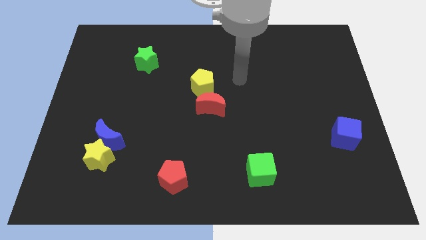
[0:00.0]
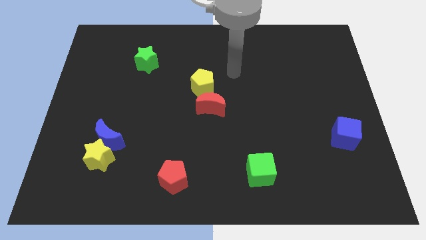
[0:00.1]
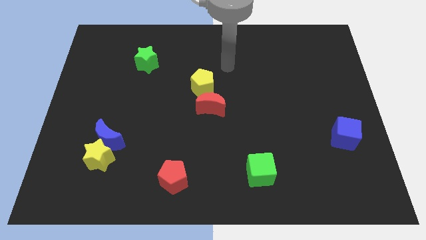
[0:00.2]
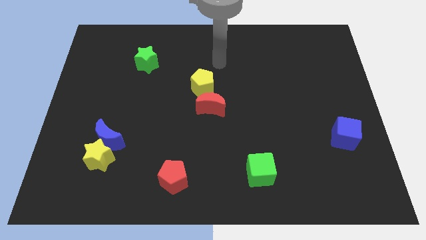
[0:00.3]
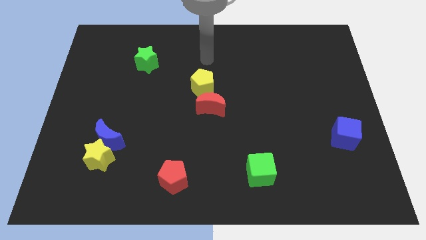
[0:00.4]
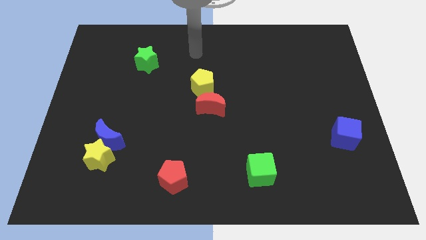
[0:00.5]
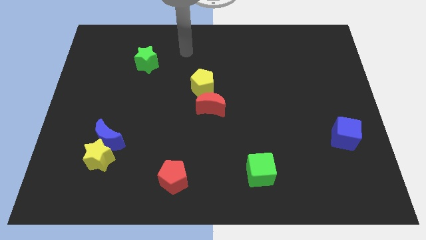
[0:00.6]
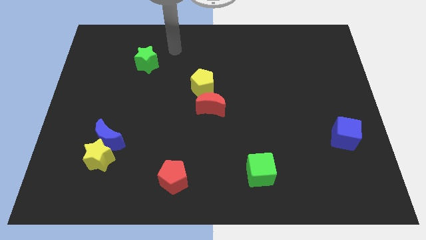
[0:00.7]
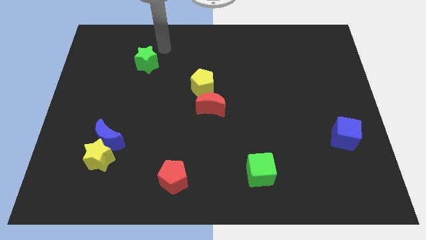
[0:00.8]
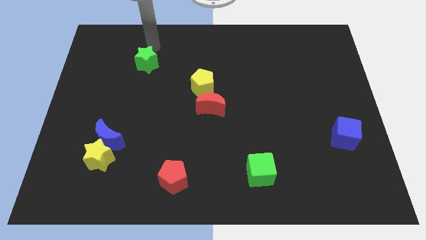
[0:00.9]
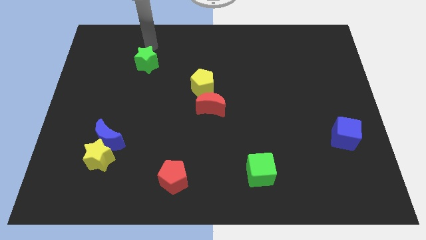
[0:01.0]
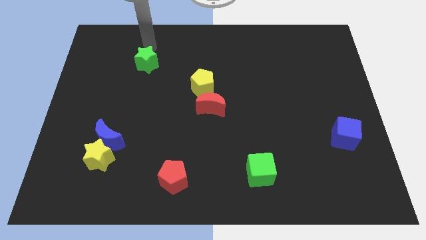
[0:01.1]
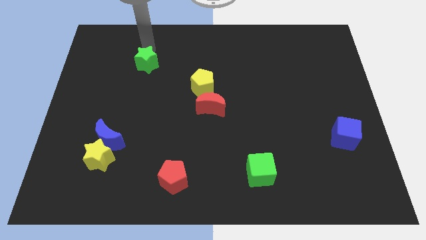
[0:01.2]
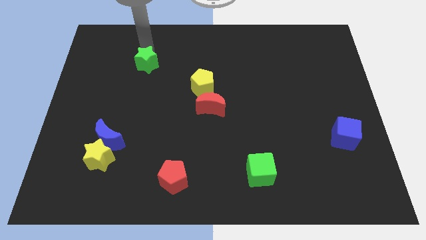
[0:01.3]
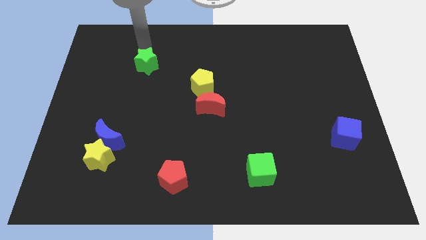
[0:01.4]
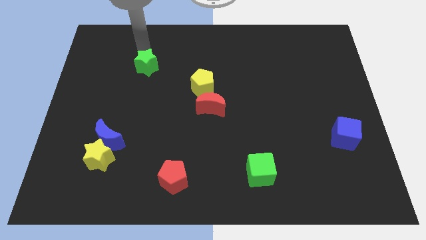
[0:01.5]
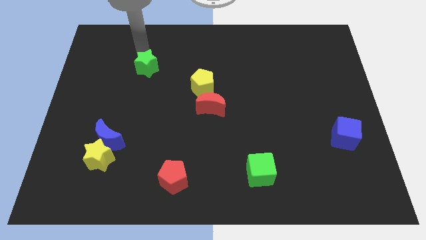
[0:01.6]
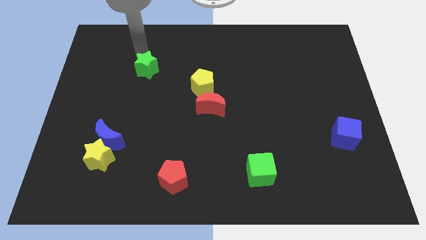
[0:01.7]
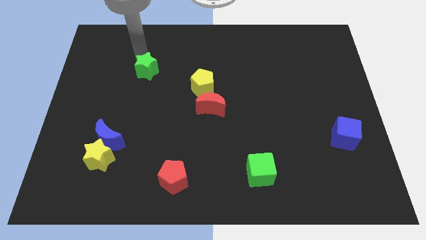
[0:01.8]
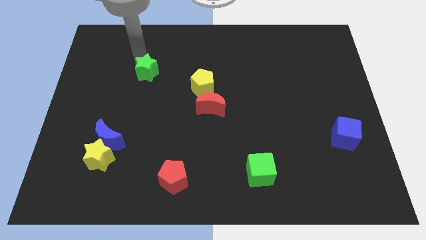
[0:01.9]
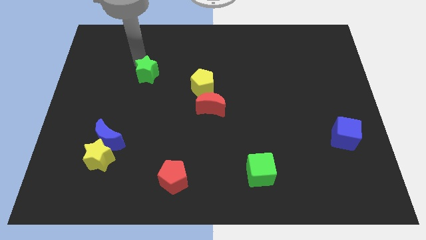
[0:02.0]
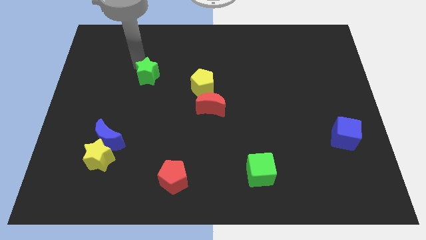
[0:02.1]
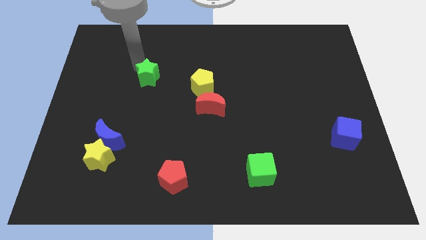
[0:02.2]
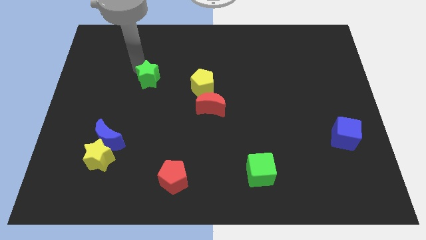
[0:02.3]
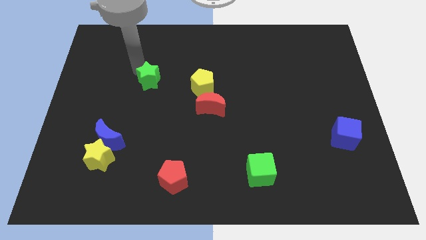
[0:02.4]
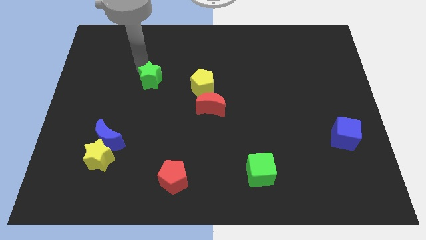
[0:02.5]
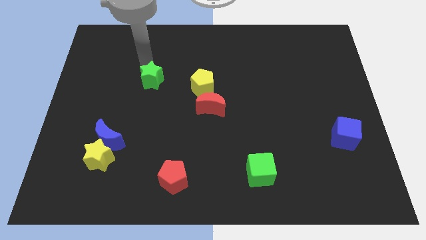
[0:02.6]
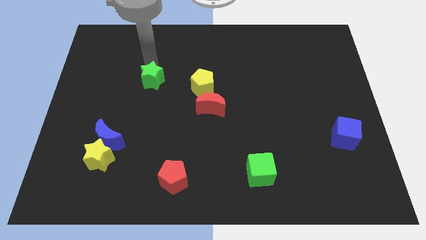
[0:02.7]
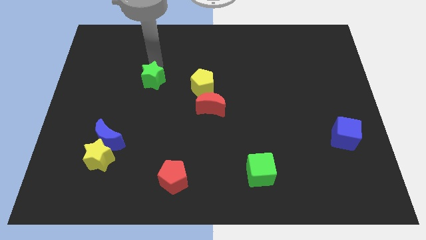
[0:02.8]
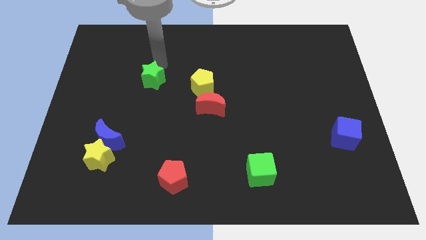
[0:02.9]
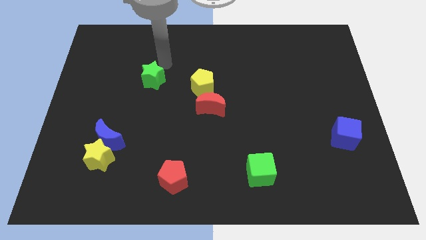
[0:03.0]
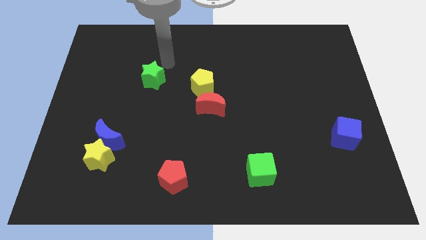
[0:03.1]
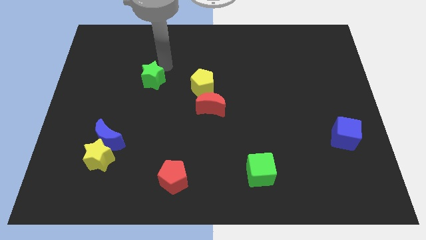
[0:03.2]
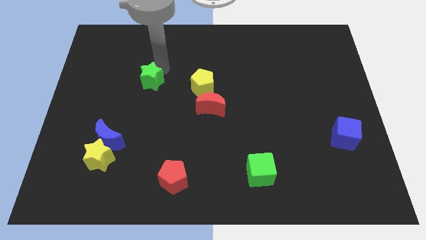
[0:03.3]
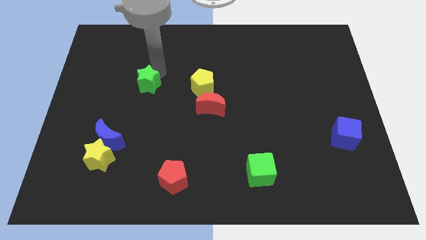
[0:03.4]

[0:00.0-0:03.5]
push the green star a little bit downwards

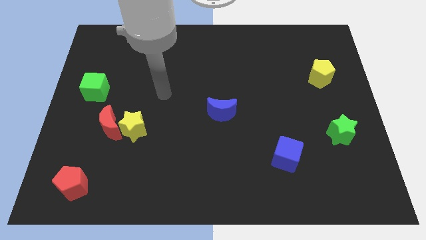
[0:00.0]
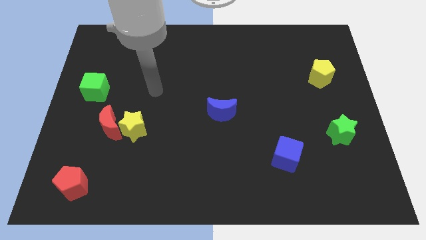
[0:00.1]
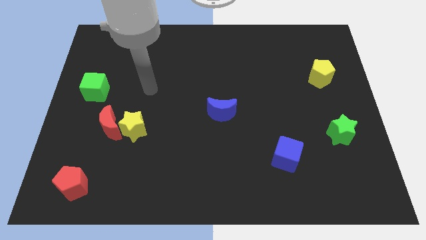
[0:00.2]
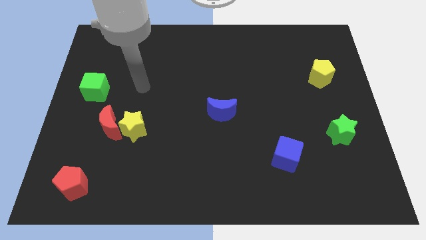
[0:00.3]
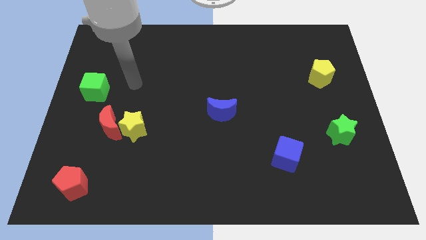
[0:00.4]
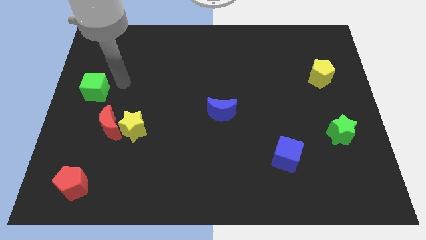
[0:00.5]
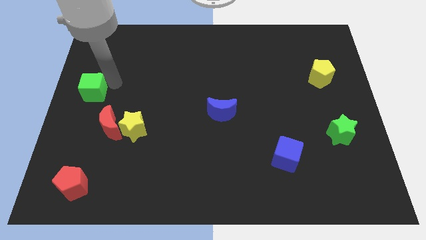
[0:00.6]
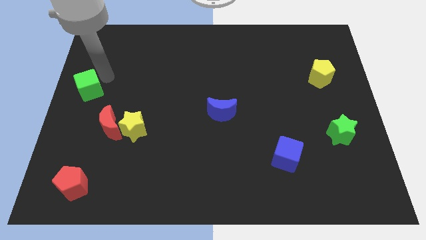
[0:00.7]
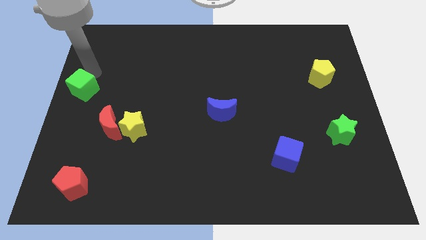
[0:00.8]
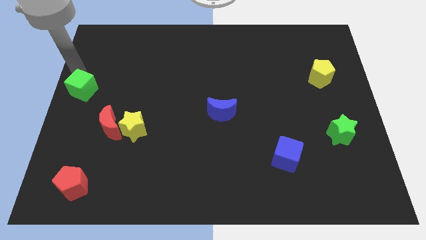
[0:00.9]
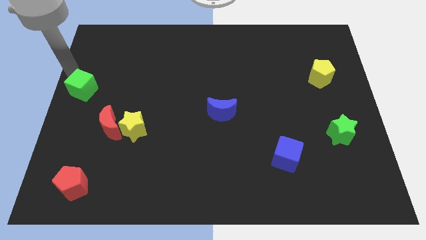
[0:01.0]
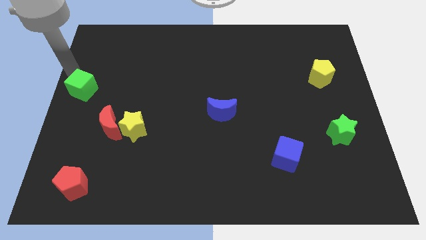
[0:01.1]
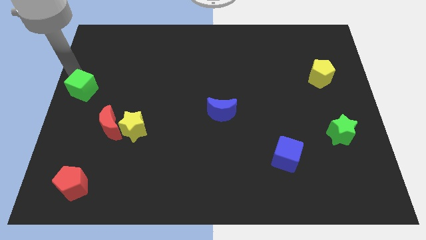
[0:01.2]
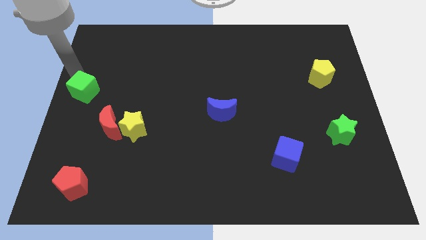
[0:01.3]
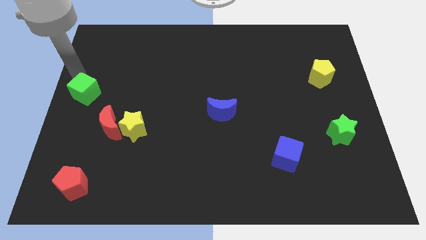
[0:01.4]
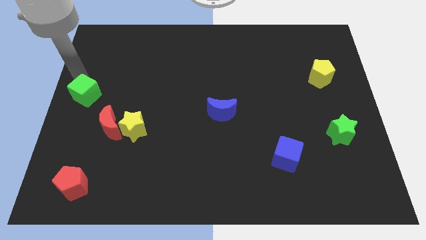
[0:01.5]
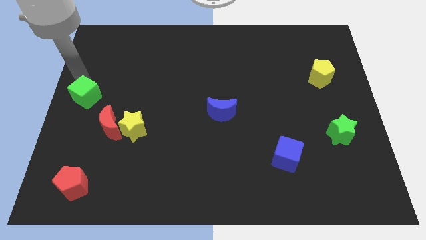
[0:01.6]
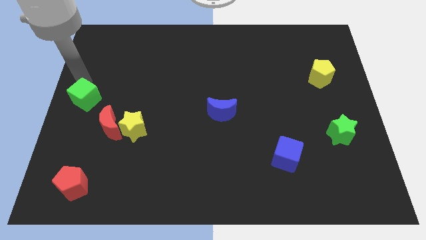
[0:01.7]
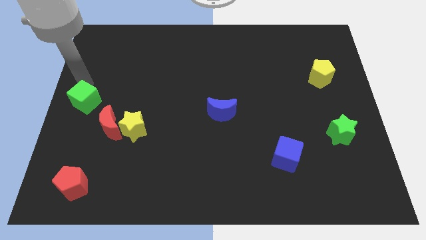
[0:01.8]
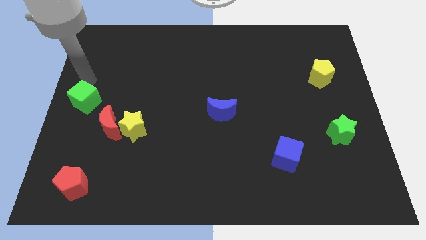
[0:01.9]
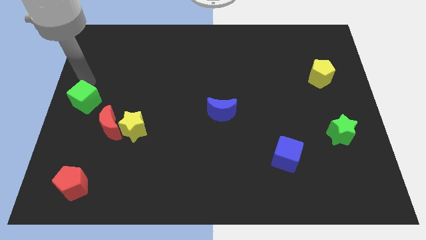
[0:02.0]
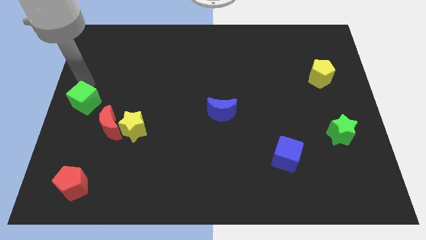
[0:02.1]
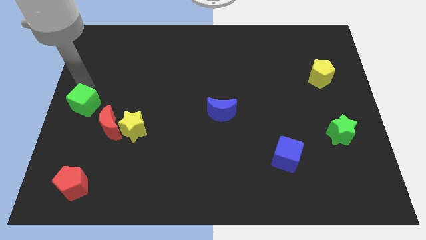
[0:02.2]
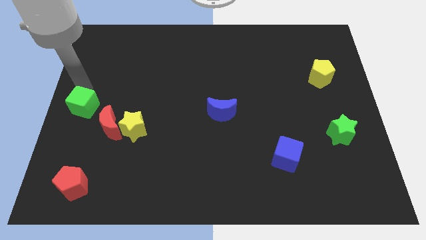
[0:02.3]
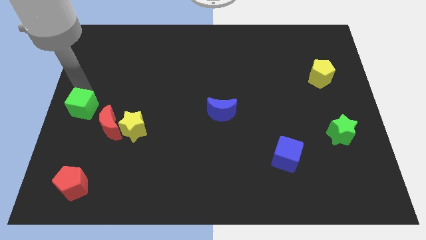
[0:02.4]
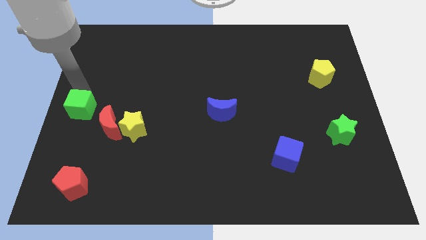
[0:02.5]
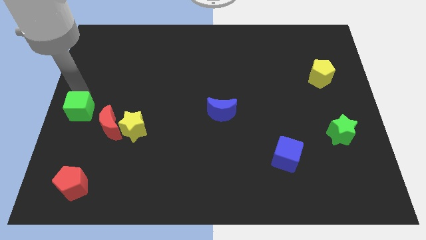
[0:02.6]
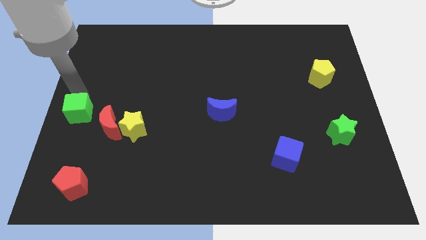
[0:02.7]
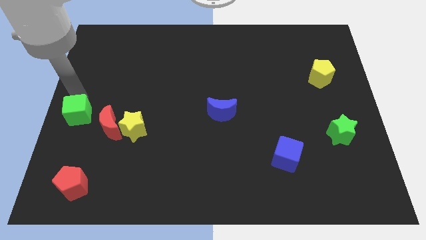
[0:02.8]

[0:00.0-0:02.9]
slightly slide the green cube downwards

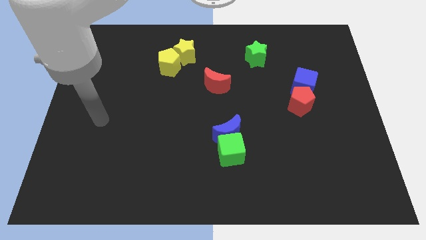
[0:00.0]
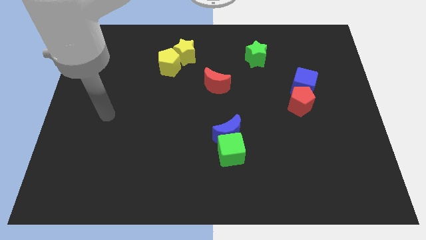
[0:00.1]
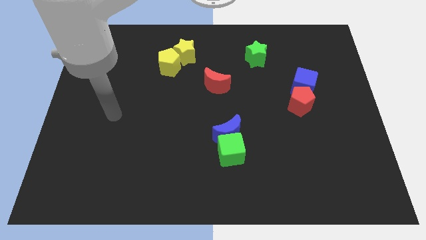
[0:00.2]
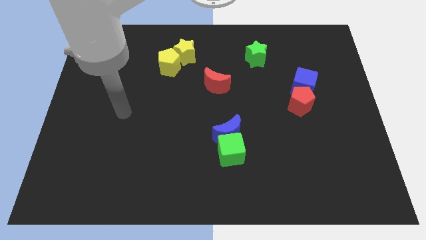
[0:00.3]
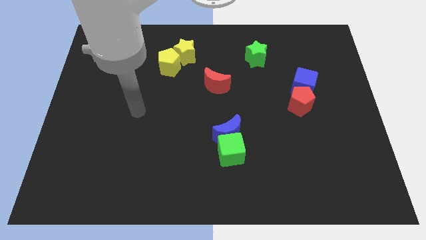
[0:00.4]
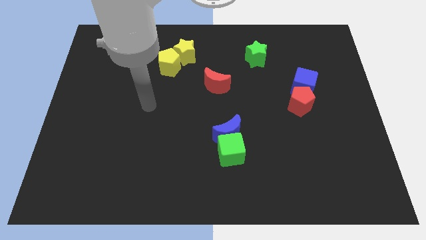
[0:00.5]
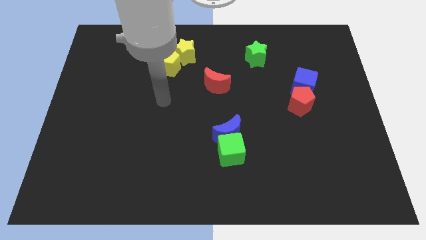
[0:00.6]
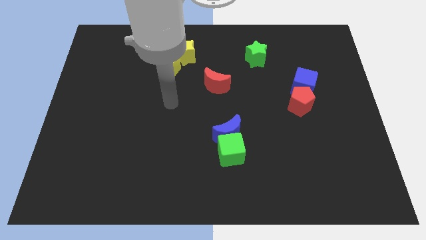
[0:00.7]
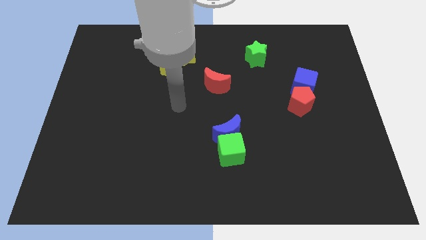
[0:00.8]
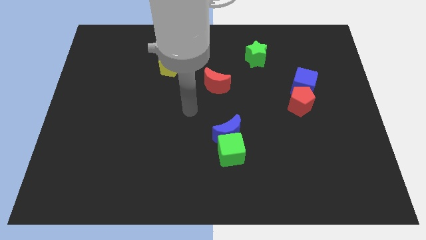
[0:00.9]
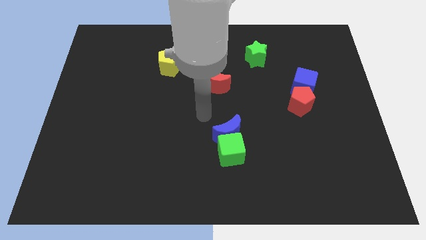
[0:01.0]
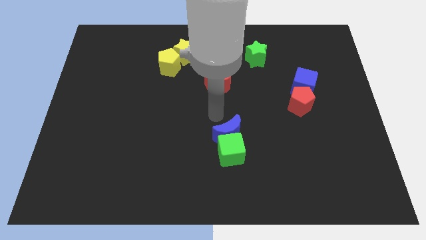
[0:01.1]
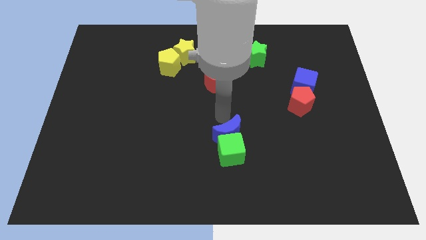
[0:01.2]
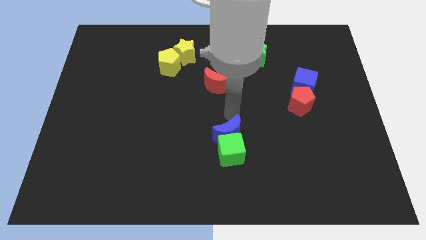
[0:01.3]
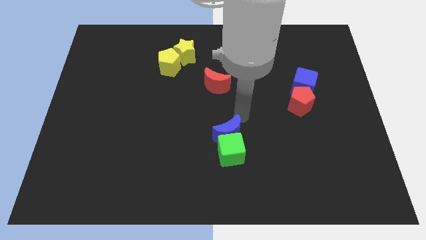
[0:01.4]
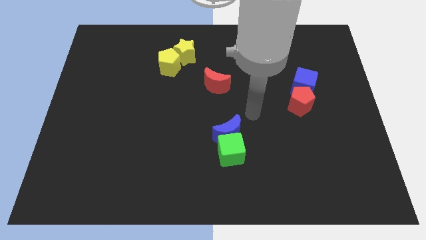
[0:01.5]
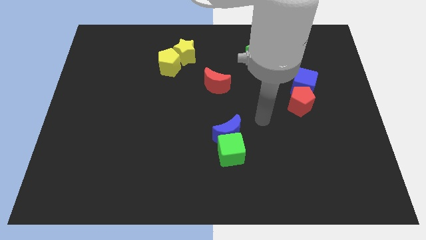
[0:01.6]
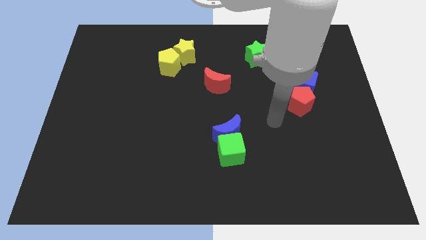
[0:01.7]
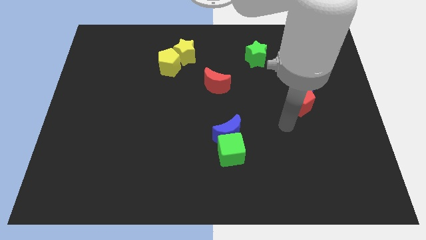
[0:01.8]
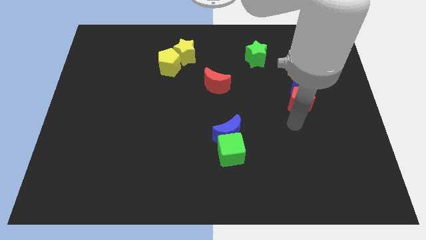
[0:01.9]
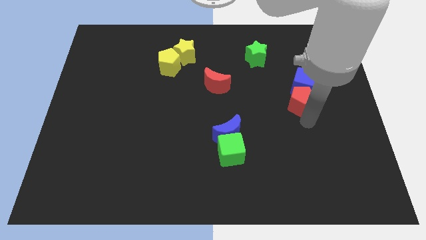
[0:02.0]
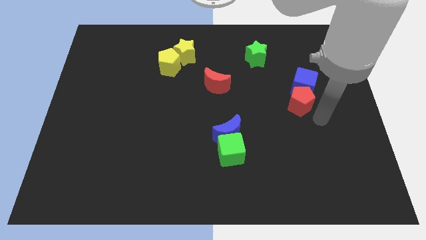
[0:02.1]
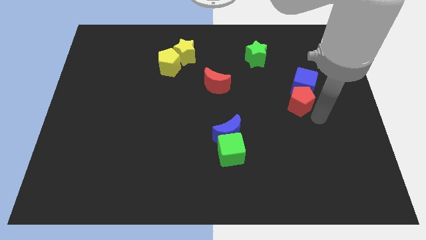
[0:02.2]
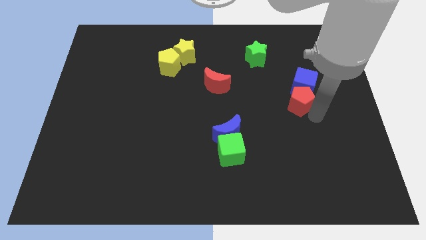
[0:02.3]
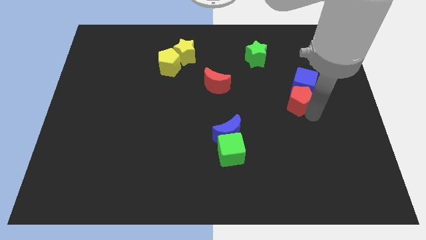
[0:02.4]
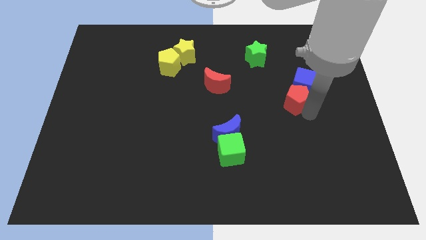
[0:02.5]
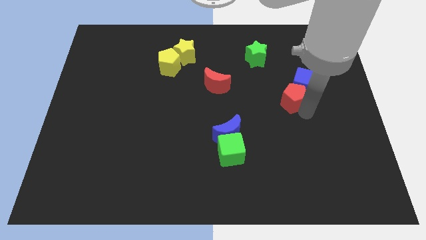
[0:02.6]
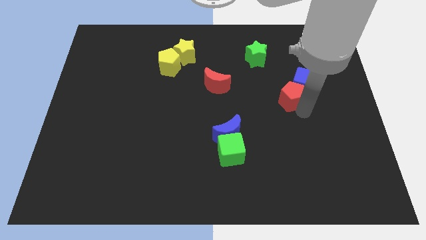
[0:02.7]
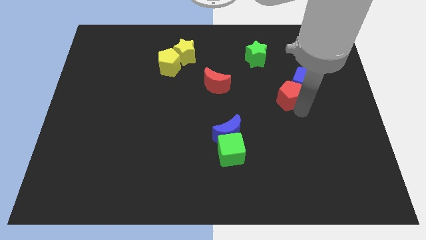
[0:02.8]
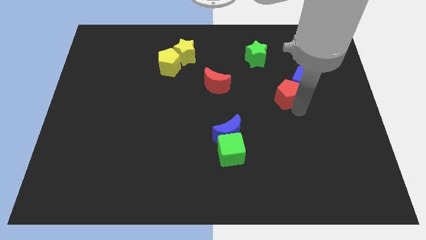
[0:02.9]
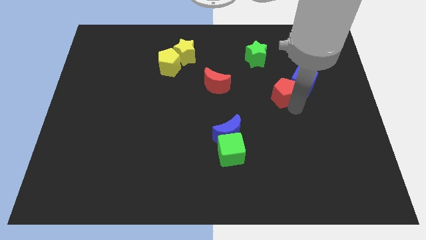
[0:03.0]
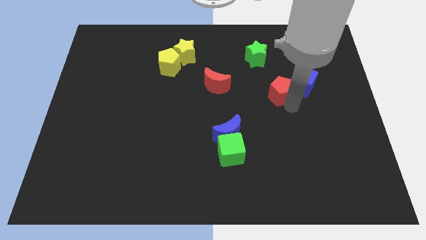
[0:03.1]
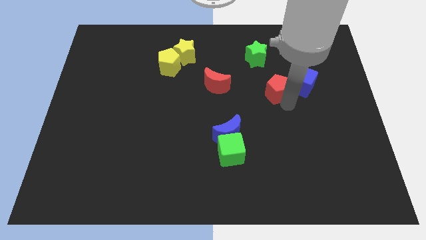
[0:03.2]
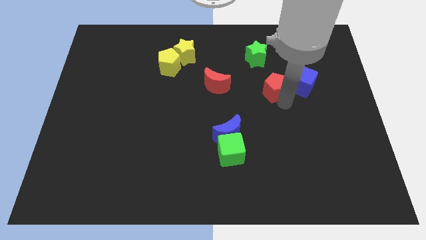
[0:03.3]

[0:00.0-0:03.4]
slightly slide the red pentagon upwards and to the left
